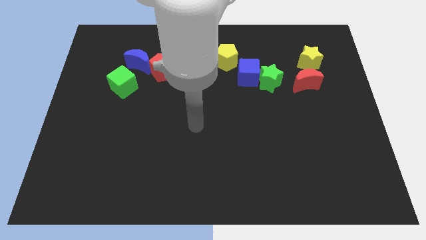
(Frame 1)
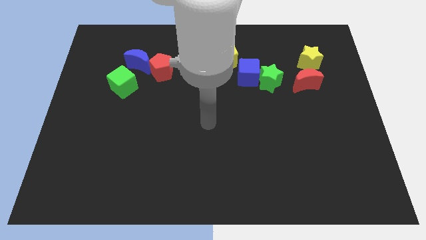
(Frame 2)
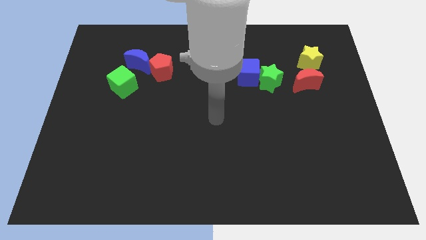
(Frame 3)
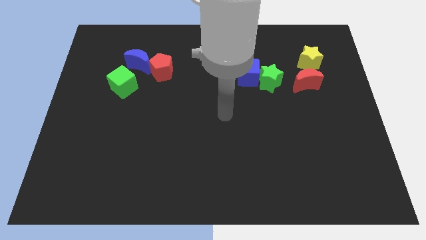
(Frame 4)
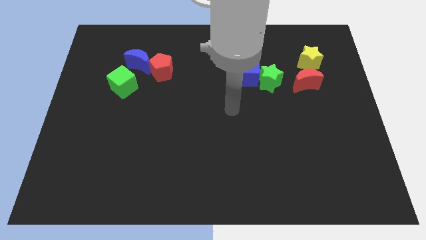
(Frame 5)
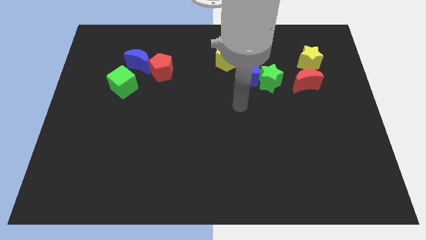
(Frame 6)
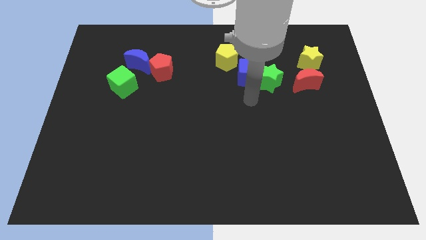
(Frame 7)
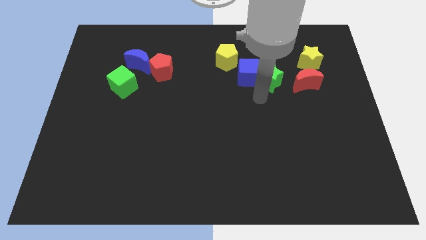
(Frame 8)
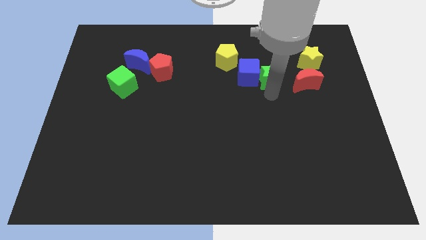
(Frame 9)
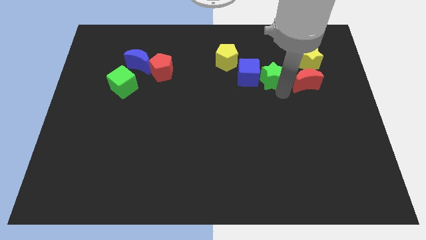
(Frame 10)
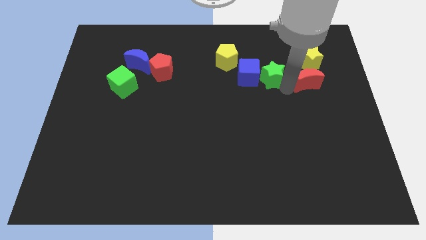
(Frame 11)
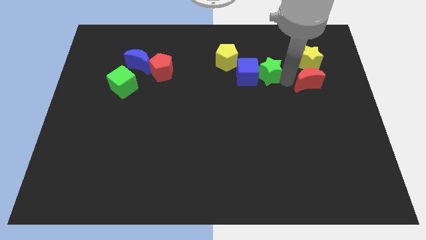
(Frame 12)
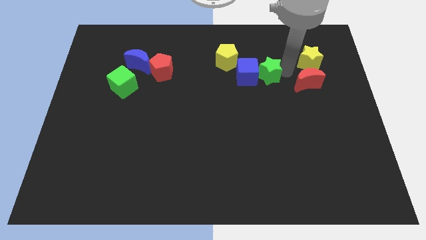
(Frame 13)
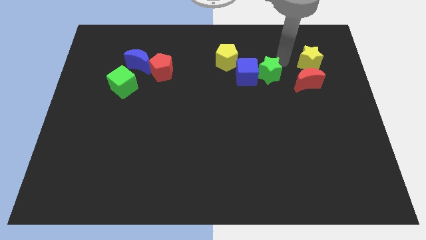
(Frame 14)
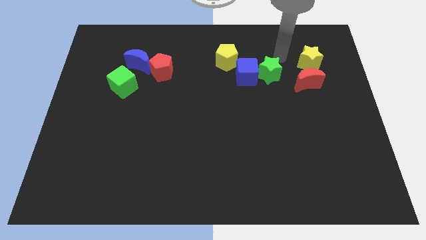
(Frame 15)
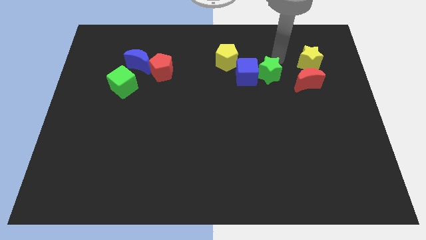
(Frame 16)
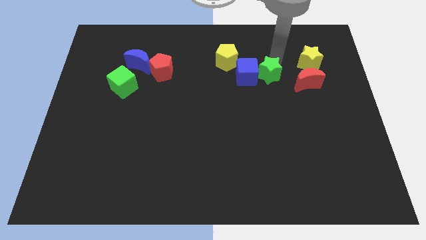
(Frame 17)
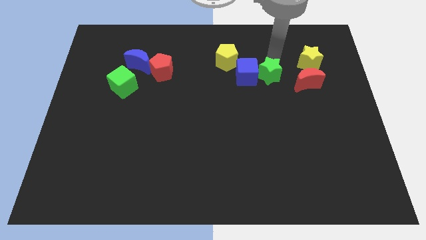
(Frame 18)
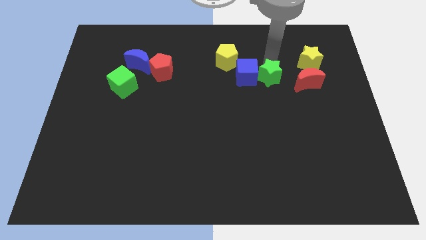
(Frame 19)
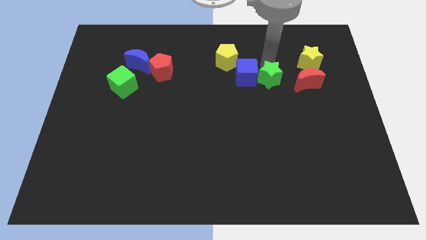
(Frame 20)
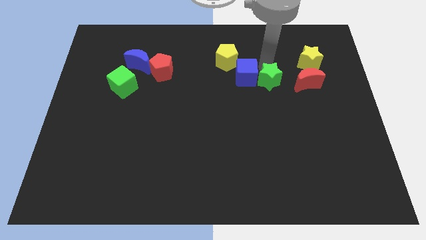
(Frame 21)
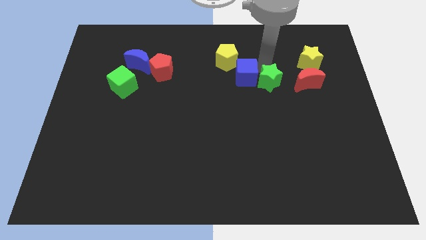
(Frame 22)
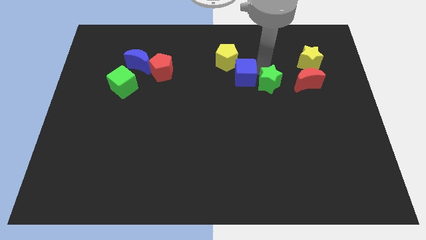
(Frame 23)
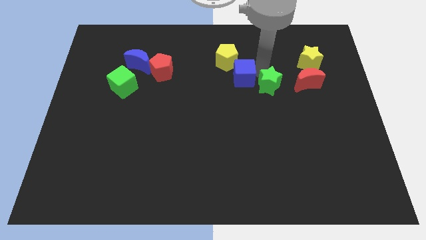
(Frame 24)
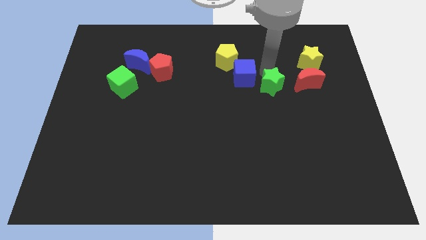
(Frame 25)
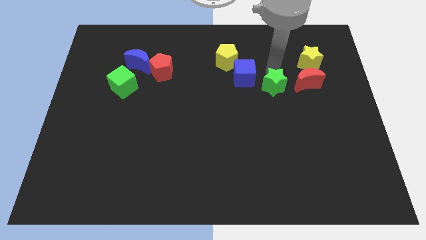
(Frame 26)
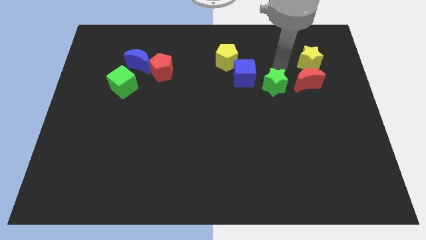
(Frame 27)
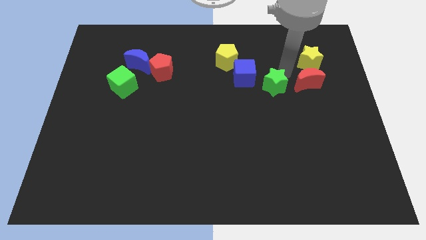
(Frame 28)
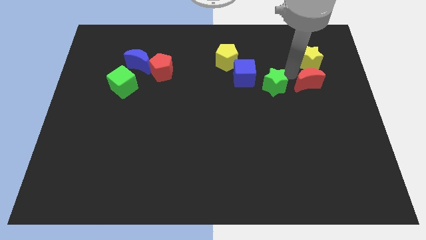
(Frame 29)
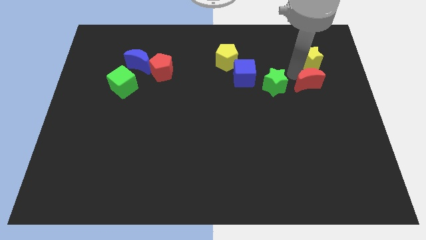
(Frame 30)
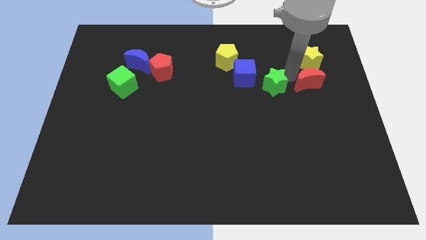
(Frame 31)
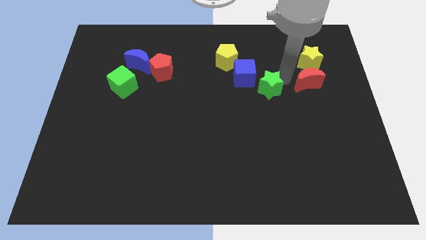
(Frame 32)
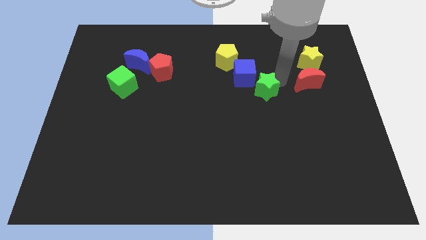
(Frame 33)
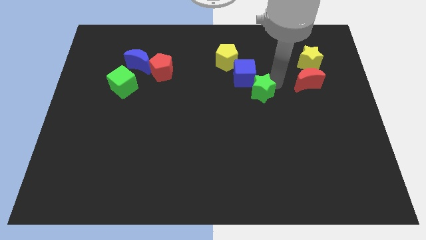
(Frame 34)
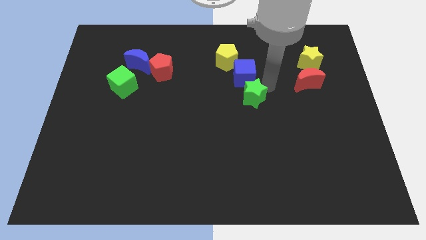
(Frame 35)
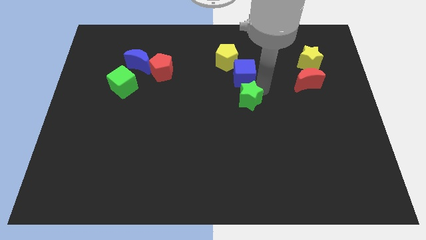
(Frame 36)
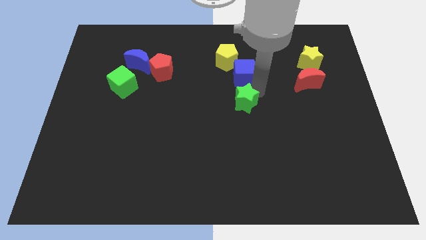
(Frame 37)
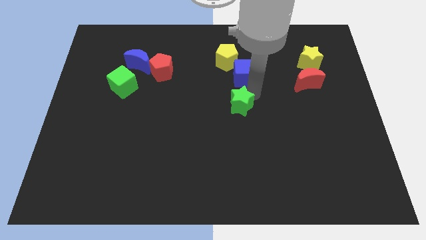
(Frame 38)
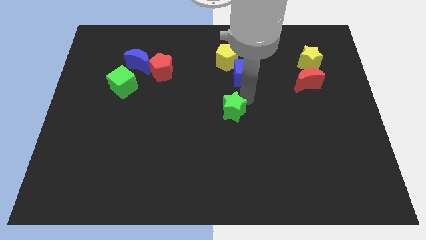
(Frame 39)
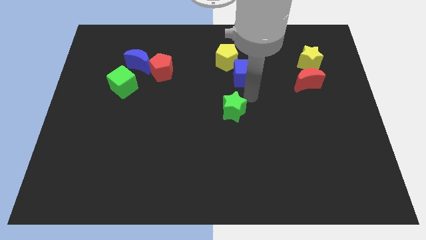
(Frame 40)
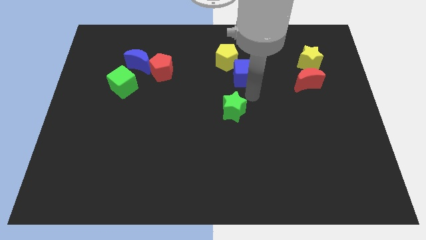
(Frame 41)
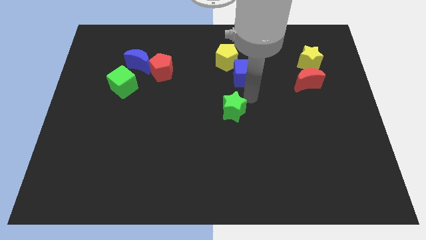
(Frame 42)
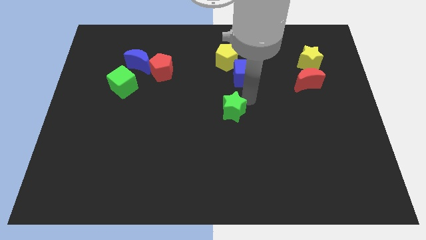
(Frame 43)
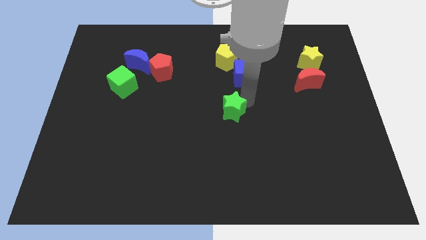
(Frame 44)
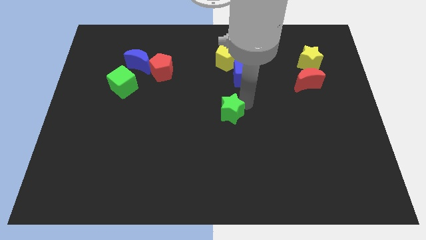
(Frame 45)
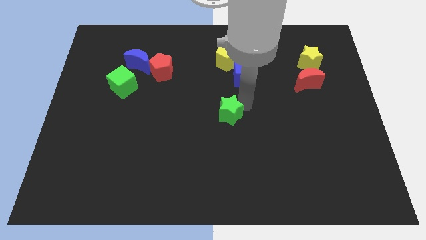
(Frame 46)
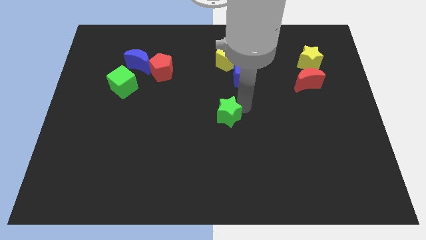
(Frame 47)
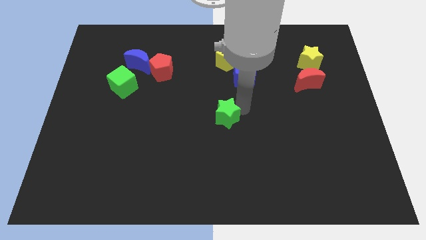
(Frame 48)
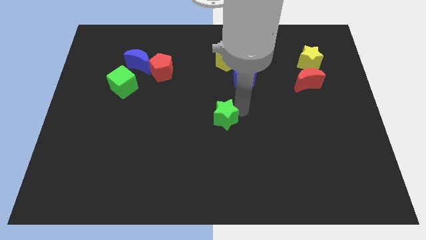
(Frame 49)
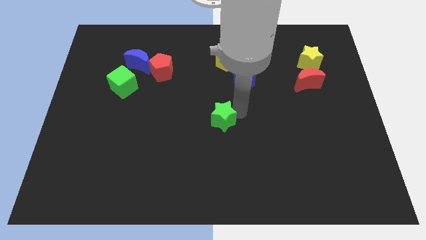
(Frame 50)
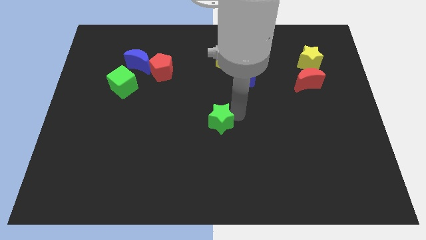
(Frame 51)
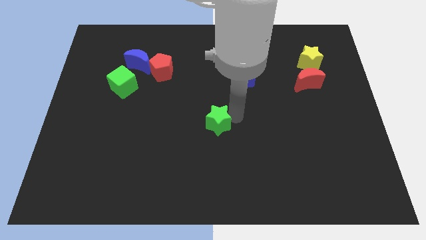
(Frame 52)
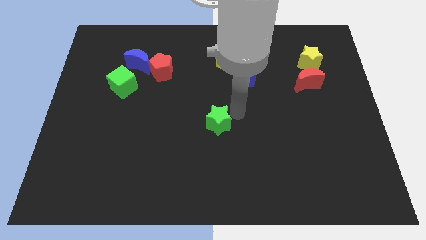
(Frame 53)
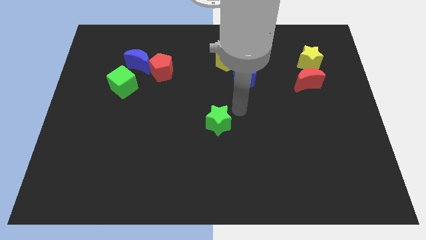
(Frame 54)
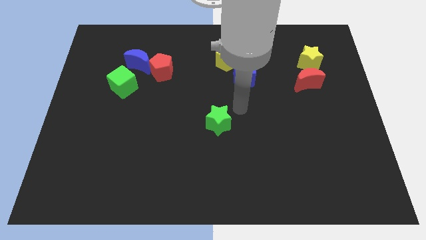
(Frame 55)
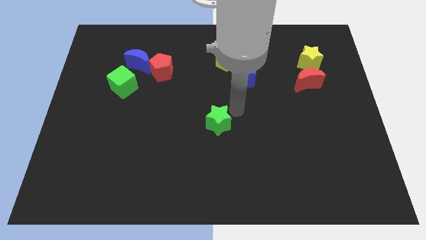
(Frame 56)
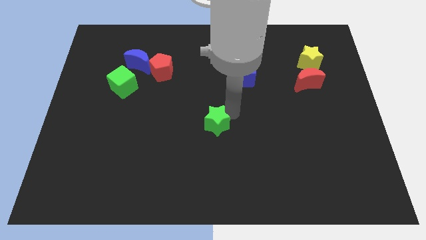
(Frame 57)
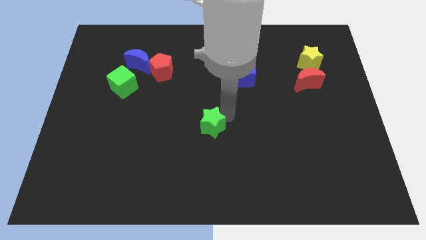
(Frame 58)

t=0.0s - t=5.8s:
move the green star downwards and to the left

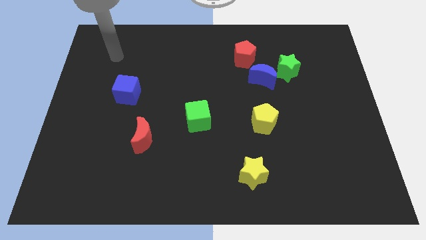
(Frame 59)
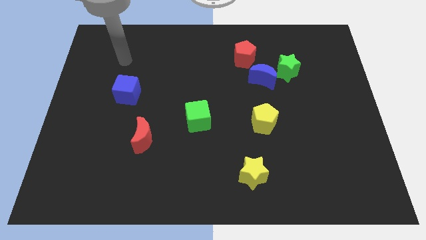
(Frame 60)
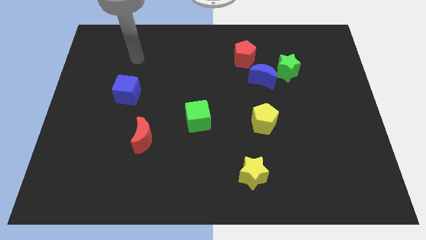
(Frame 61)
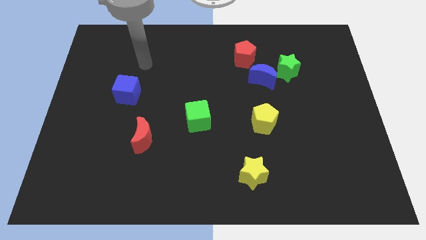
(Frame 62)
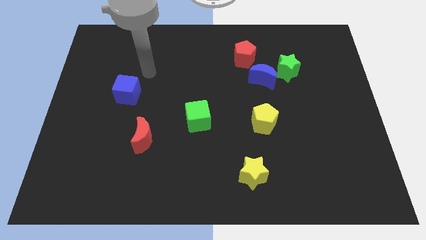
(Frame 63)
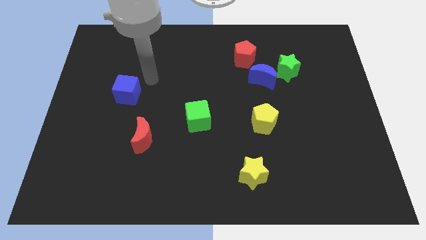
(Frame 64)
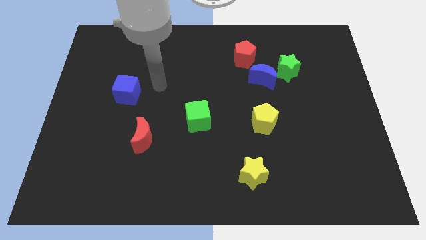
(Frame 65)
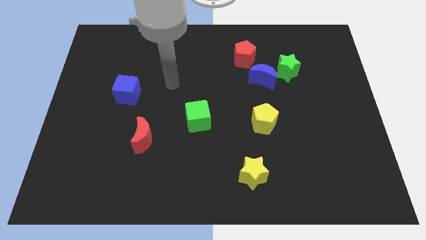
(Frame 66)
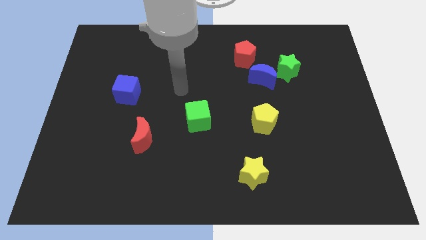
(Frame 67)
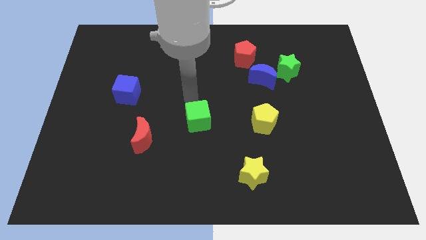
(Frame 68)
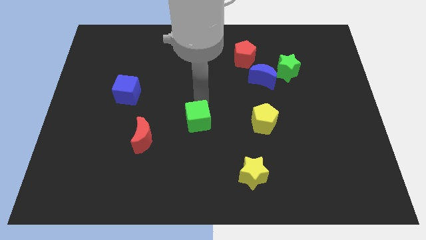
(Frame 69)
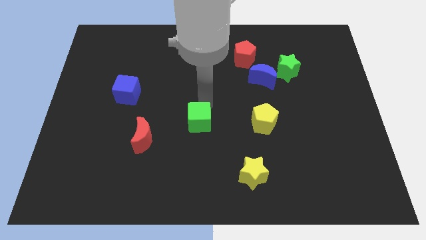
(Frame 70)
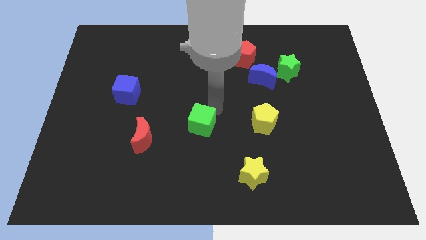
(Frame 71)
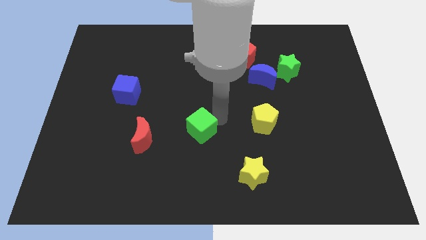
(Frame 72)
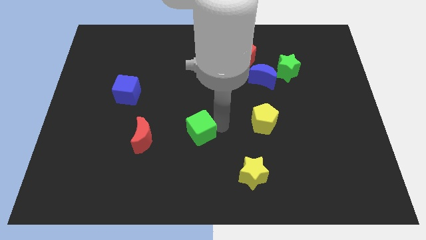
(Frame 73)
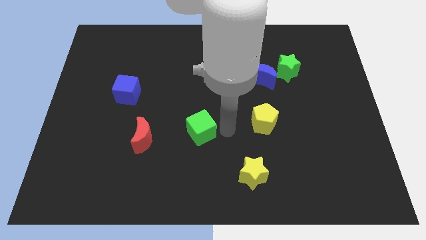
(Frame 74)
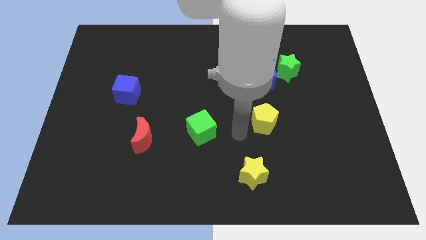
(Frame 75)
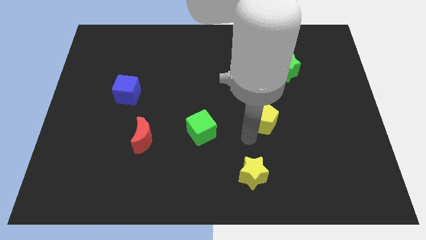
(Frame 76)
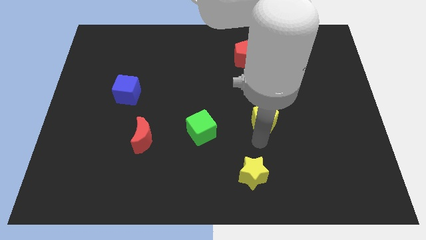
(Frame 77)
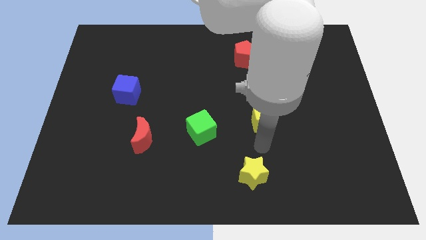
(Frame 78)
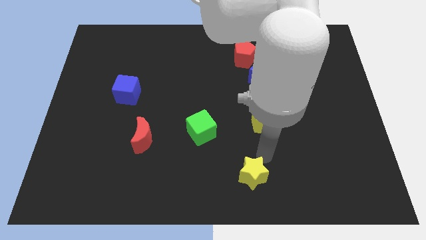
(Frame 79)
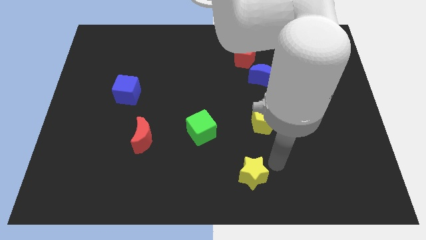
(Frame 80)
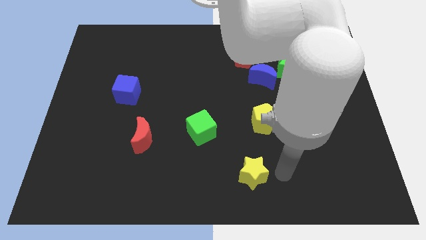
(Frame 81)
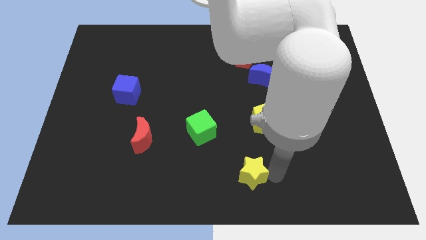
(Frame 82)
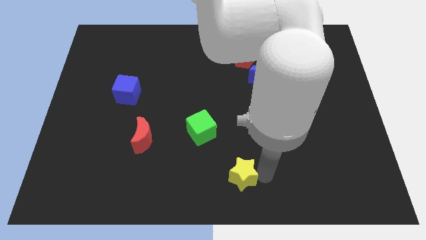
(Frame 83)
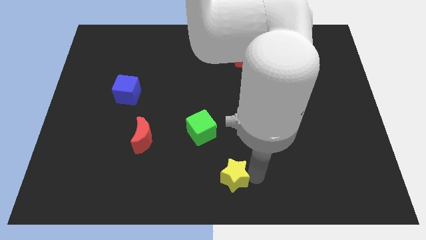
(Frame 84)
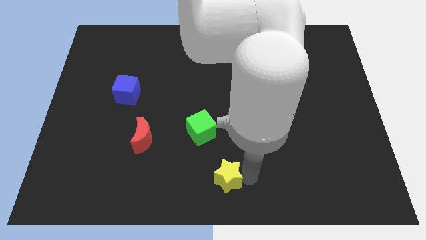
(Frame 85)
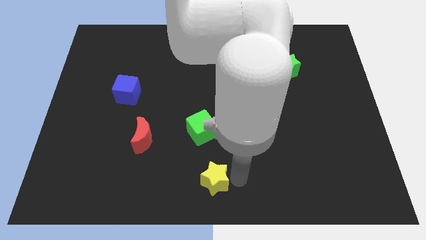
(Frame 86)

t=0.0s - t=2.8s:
slightly slide the yellow star left

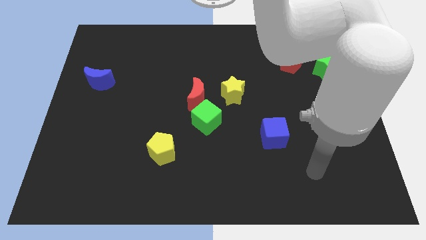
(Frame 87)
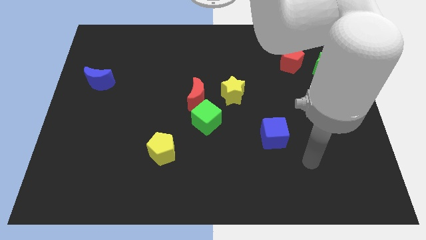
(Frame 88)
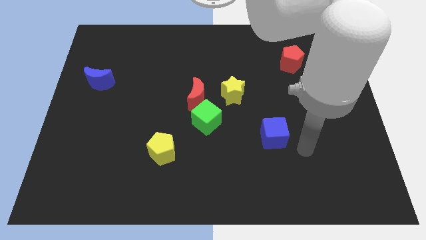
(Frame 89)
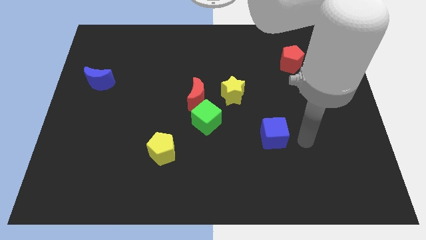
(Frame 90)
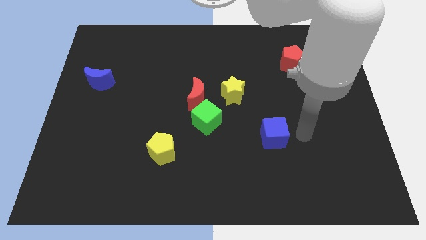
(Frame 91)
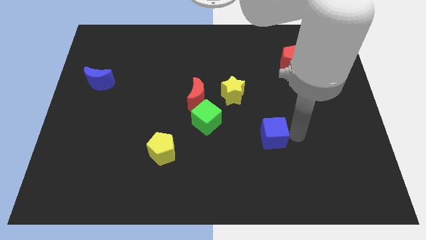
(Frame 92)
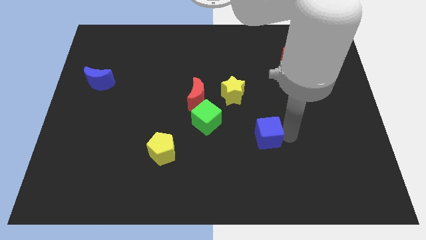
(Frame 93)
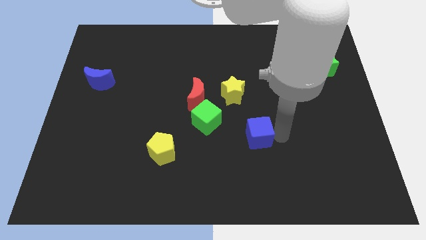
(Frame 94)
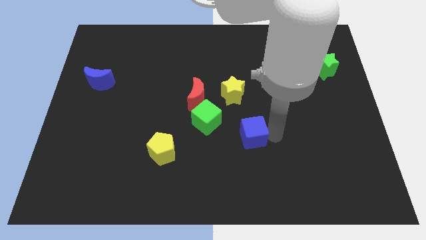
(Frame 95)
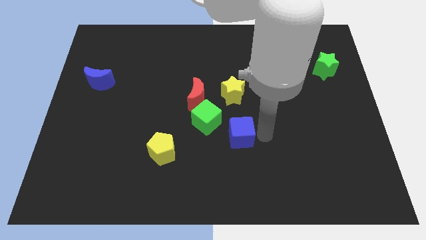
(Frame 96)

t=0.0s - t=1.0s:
slide the blue cube left a bit
